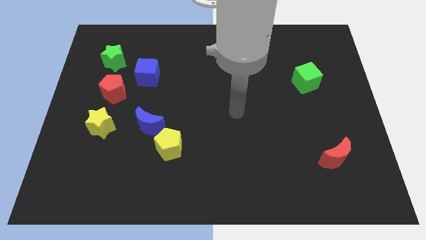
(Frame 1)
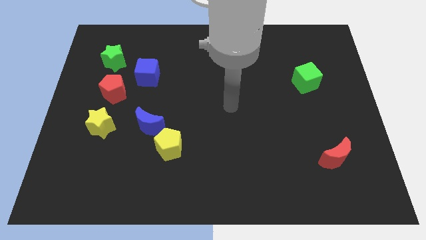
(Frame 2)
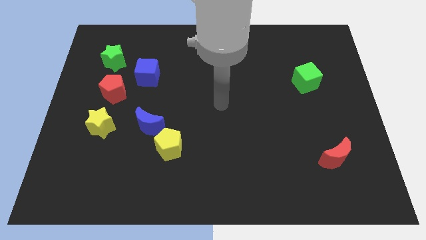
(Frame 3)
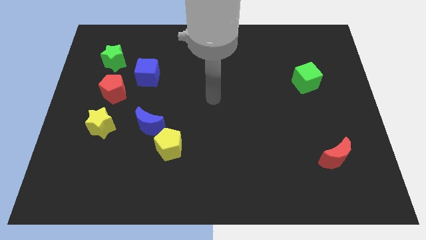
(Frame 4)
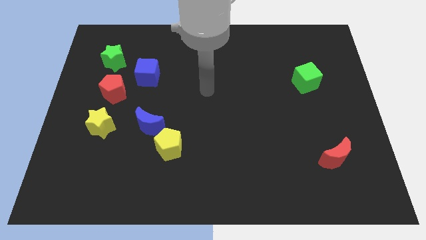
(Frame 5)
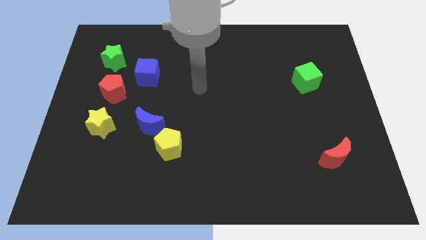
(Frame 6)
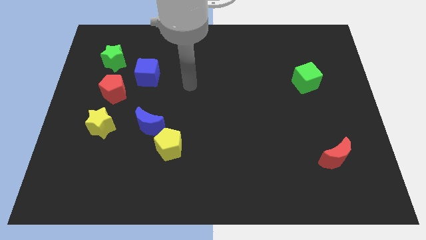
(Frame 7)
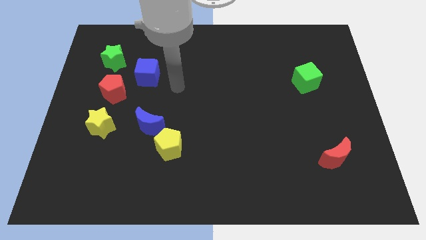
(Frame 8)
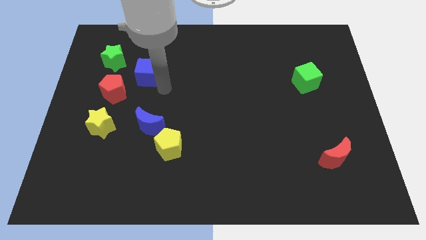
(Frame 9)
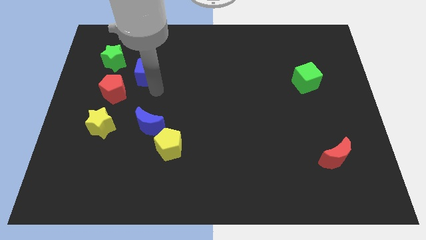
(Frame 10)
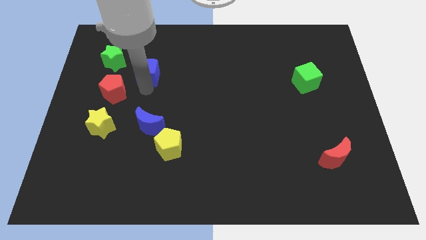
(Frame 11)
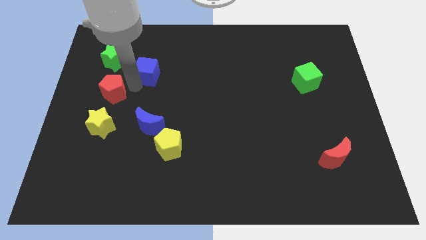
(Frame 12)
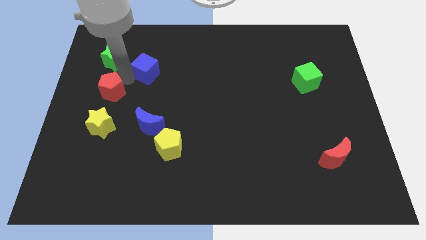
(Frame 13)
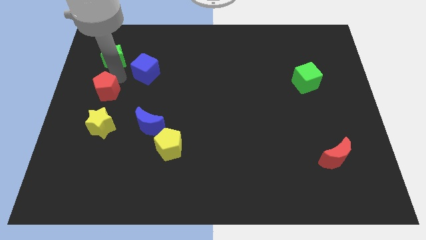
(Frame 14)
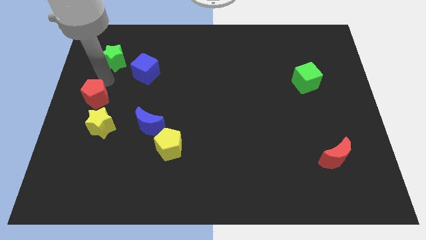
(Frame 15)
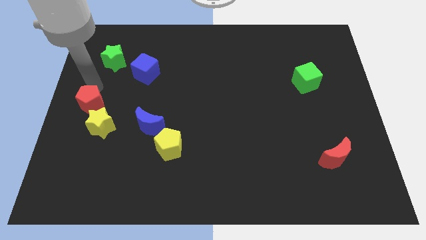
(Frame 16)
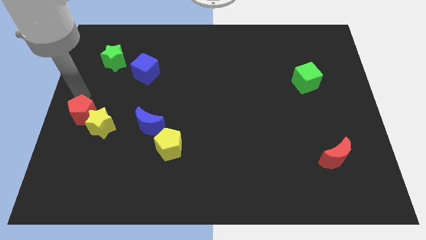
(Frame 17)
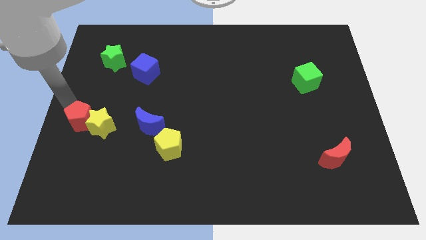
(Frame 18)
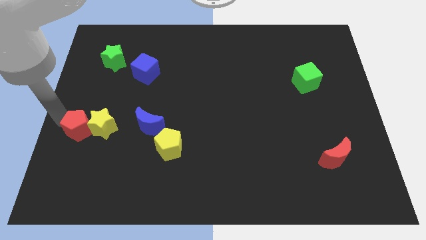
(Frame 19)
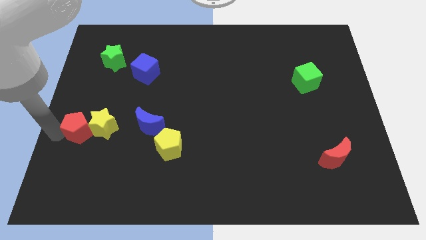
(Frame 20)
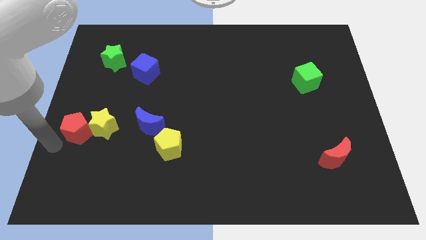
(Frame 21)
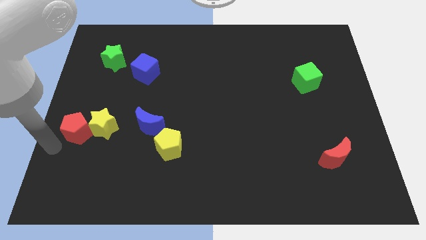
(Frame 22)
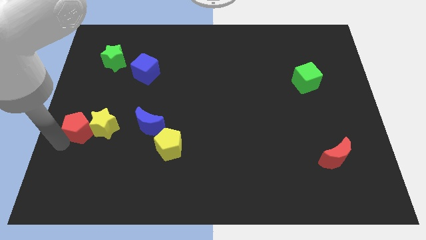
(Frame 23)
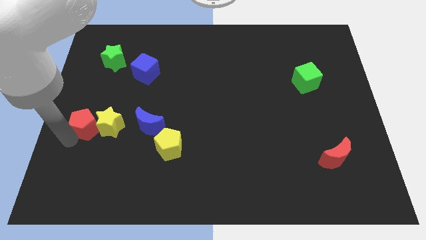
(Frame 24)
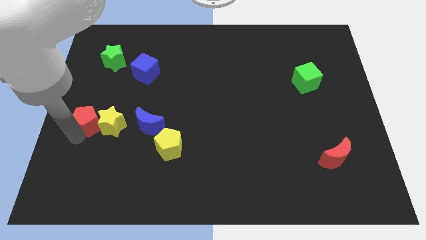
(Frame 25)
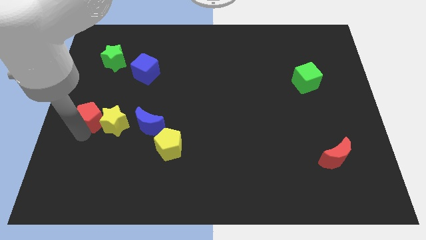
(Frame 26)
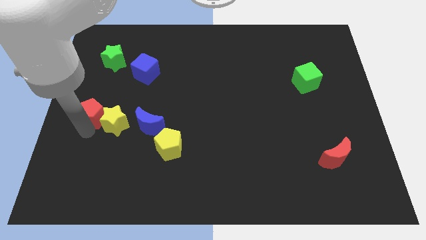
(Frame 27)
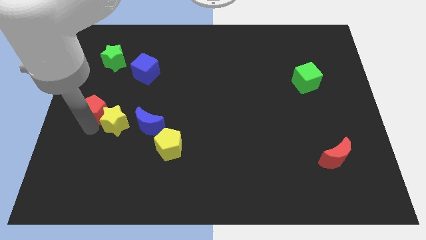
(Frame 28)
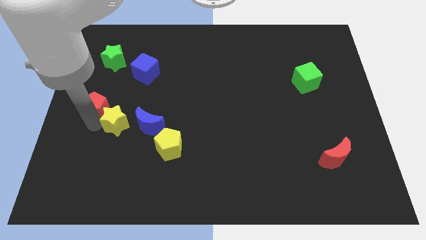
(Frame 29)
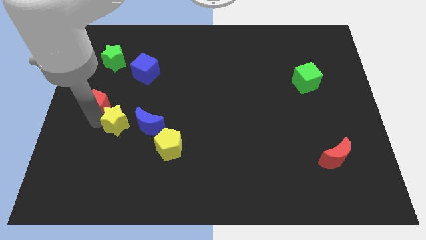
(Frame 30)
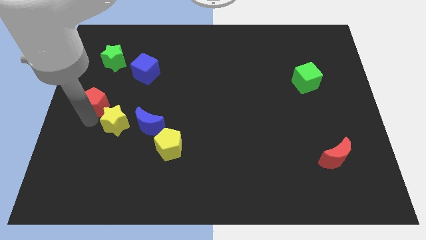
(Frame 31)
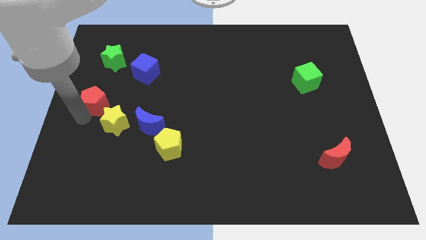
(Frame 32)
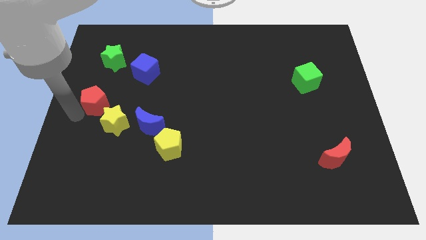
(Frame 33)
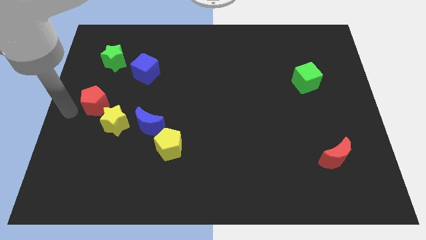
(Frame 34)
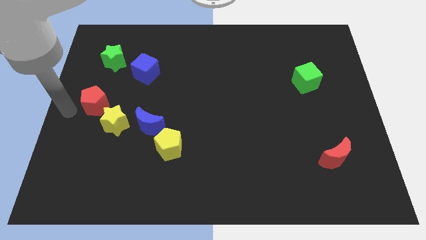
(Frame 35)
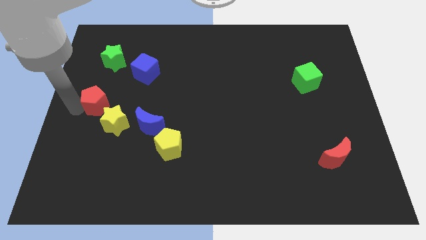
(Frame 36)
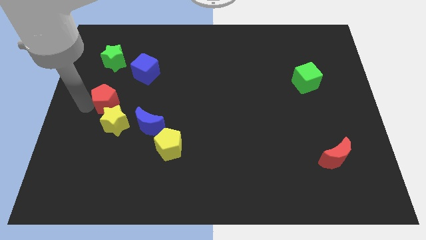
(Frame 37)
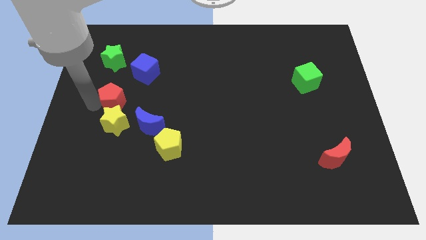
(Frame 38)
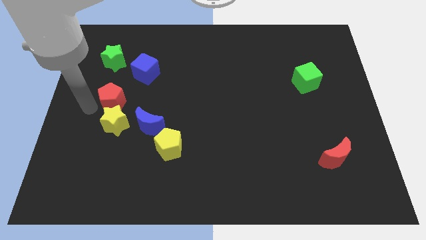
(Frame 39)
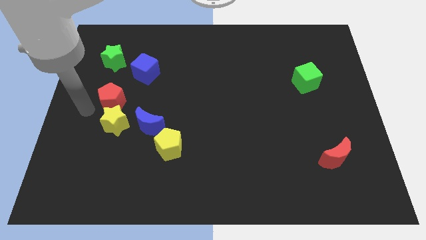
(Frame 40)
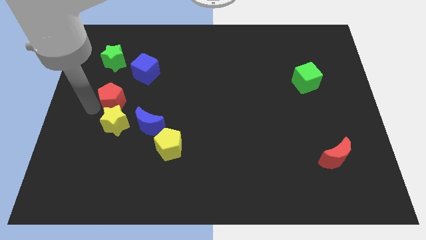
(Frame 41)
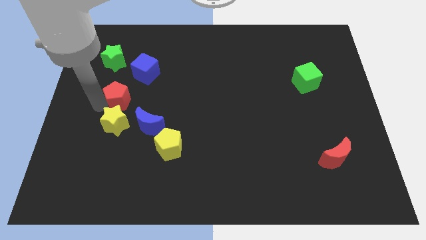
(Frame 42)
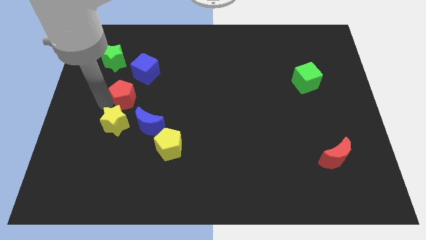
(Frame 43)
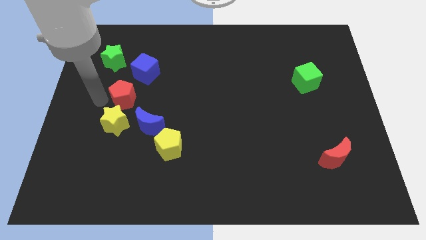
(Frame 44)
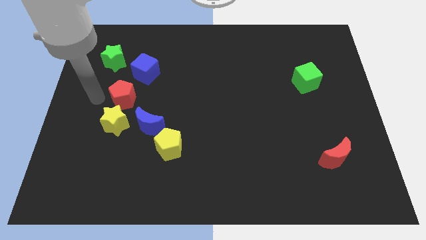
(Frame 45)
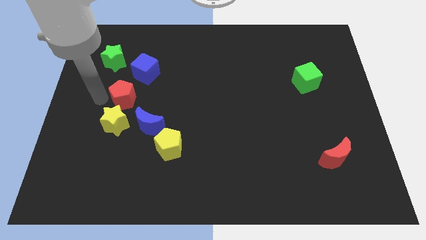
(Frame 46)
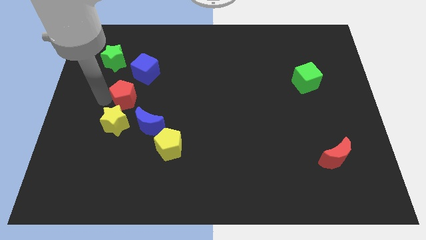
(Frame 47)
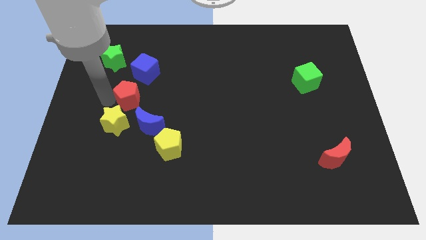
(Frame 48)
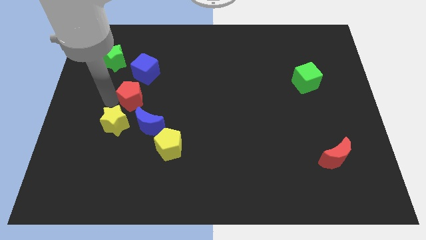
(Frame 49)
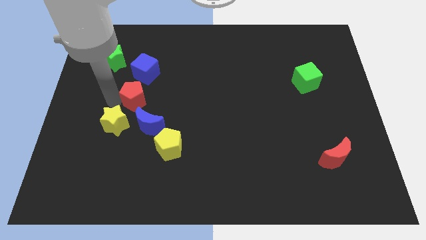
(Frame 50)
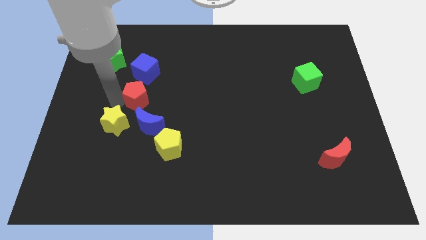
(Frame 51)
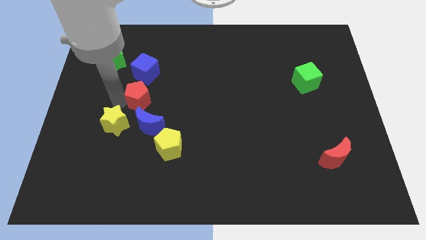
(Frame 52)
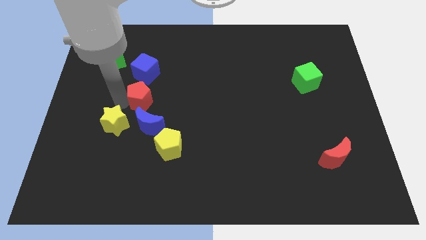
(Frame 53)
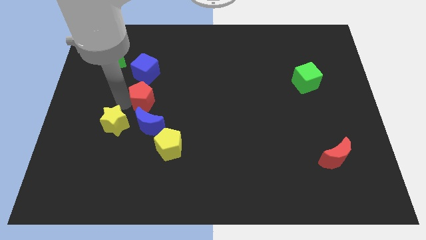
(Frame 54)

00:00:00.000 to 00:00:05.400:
slightly push the red pentagon to the right

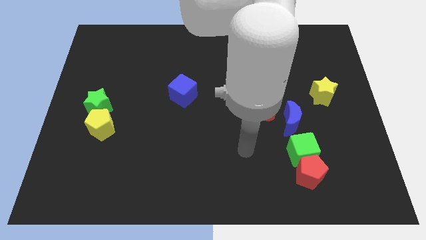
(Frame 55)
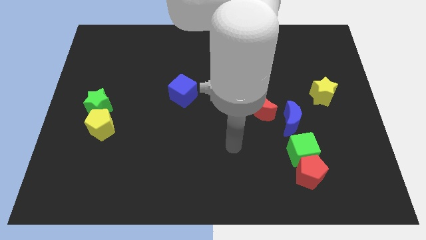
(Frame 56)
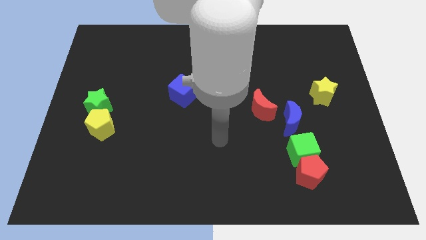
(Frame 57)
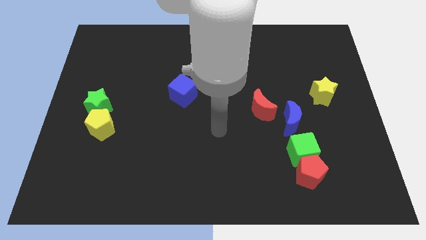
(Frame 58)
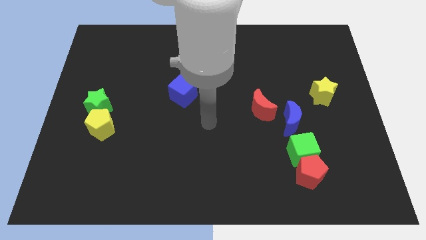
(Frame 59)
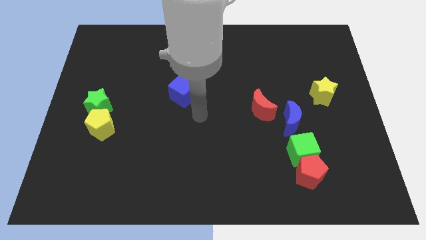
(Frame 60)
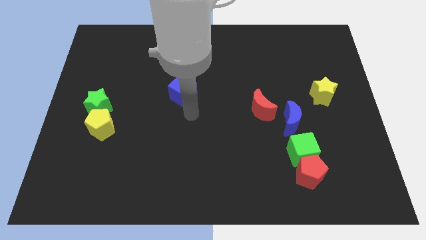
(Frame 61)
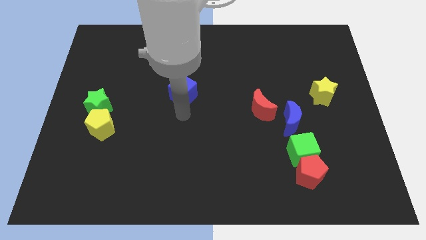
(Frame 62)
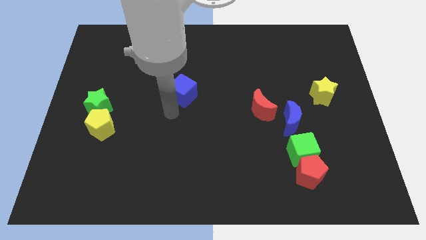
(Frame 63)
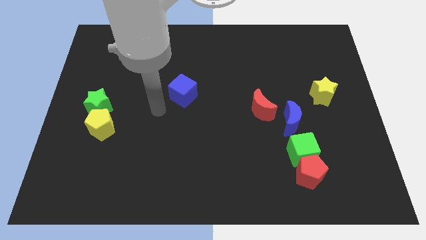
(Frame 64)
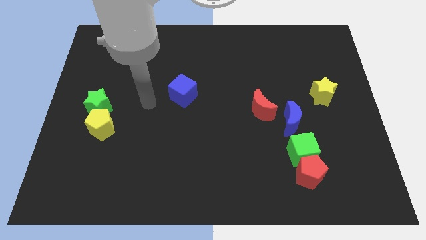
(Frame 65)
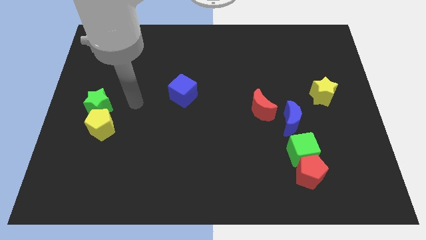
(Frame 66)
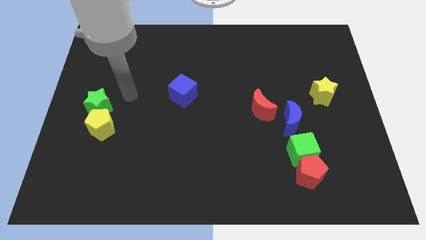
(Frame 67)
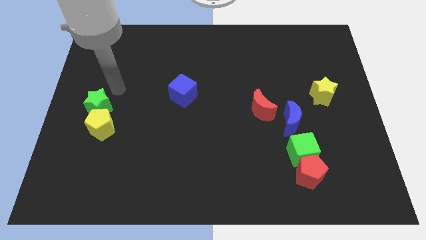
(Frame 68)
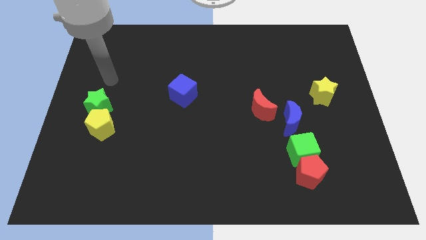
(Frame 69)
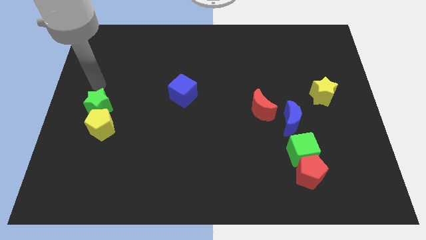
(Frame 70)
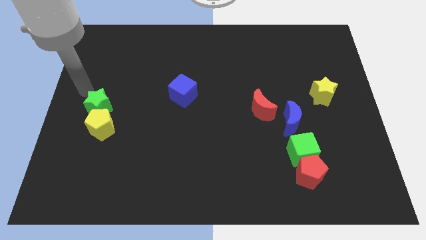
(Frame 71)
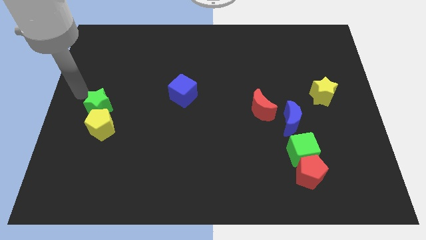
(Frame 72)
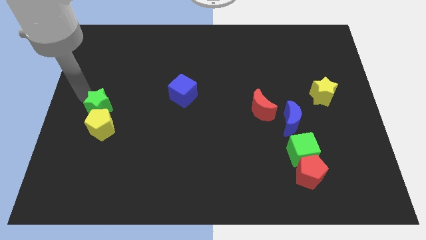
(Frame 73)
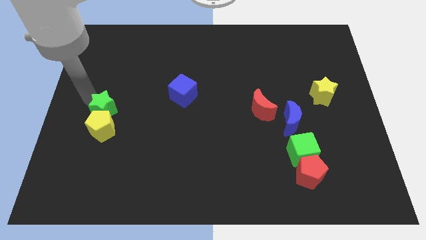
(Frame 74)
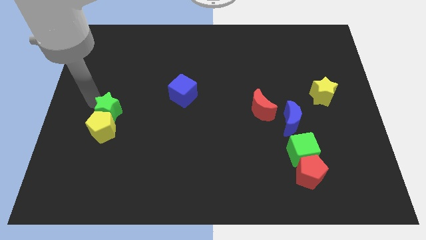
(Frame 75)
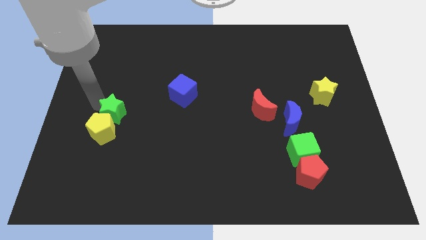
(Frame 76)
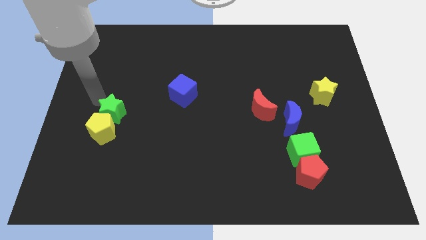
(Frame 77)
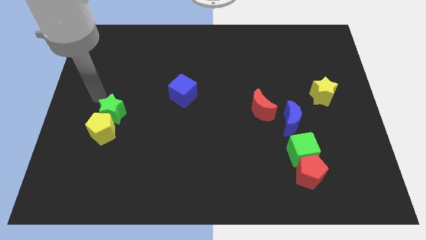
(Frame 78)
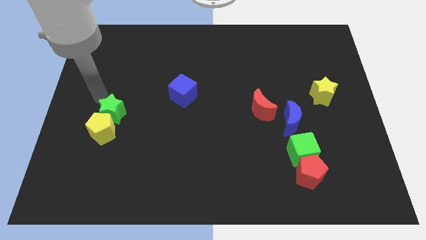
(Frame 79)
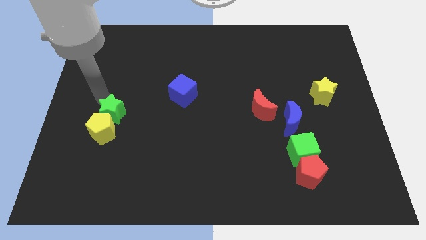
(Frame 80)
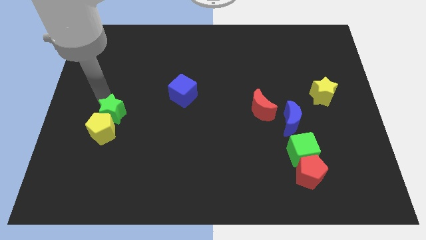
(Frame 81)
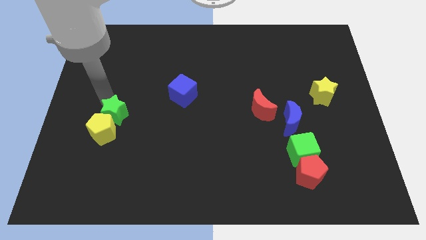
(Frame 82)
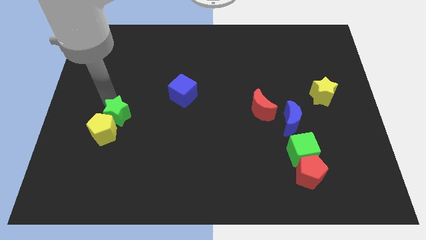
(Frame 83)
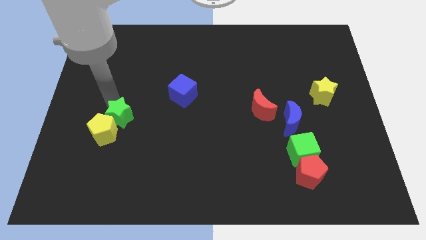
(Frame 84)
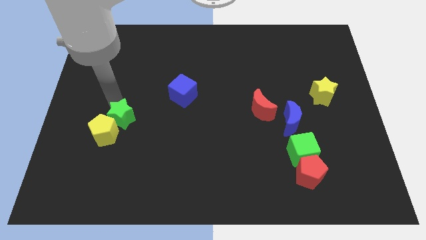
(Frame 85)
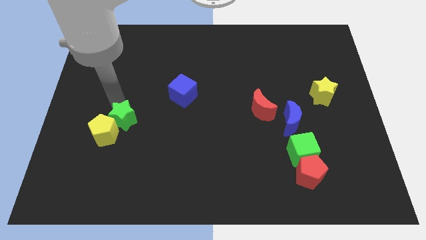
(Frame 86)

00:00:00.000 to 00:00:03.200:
move the green star a little downwards and to the right
